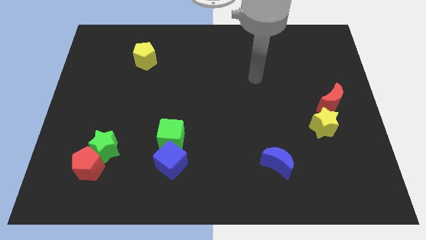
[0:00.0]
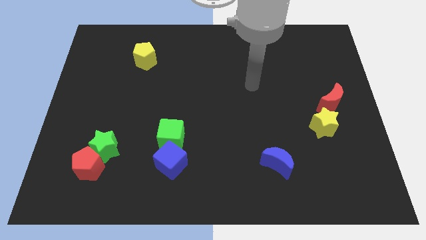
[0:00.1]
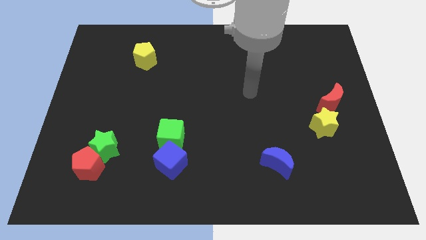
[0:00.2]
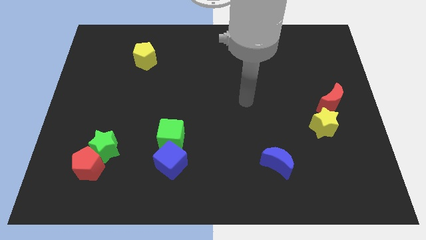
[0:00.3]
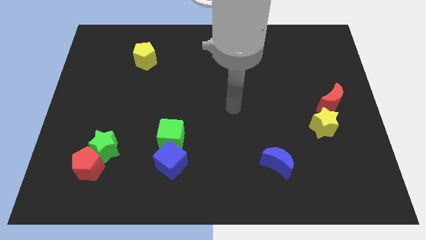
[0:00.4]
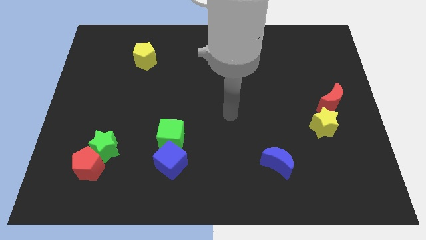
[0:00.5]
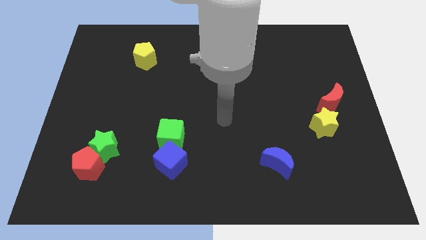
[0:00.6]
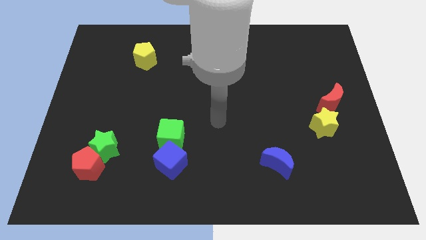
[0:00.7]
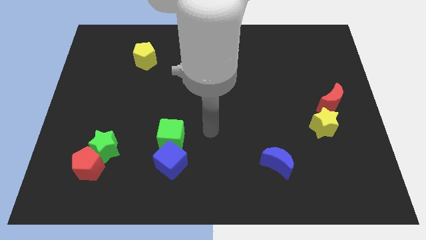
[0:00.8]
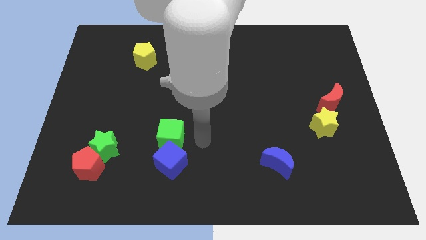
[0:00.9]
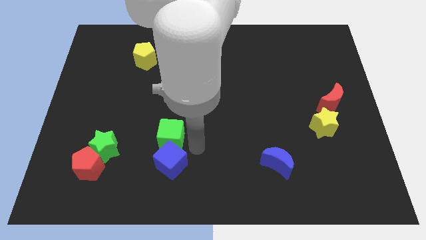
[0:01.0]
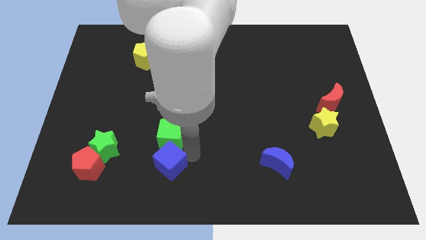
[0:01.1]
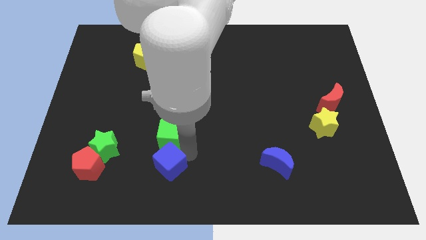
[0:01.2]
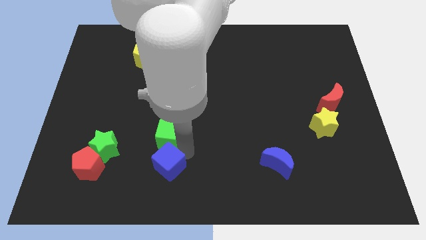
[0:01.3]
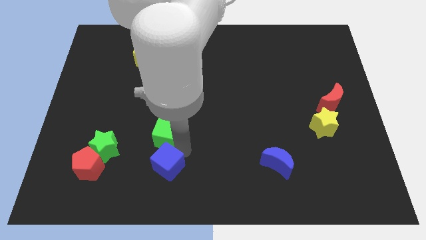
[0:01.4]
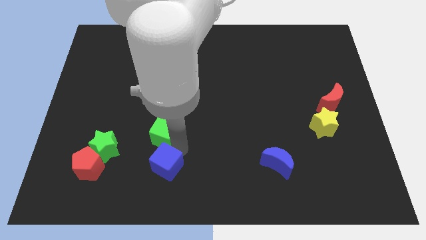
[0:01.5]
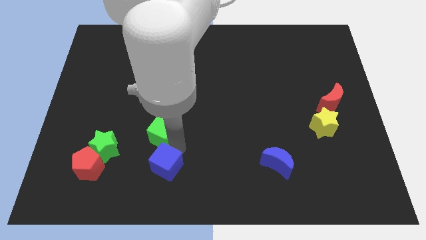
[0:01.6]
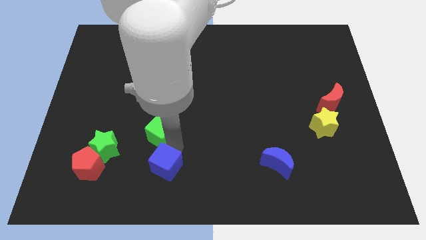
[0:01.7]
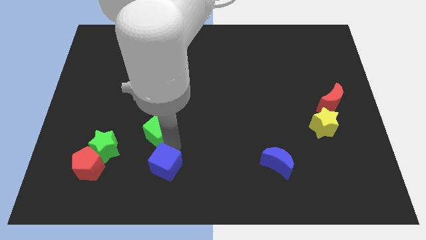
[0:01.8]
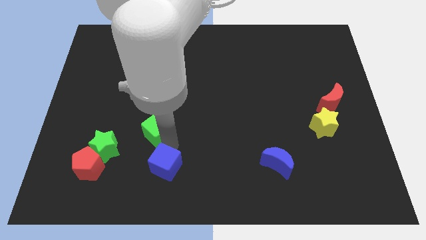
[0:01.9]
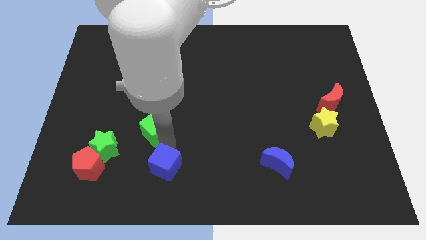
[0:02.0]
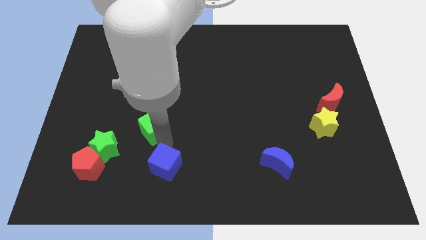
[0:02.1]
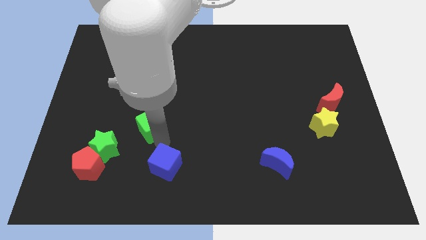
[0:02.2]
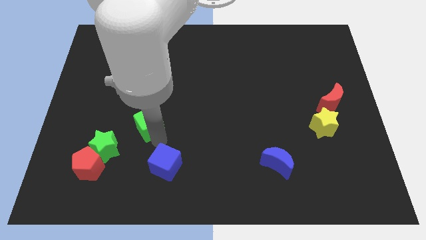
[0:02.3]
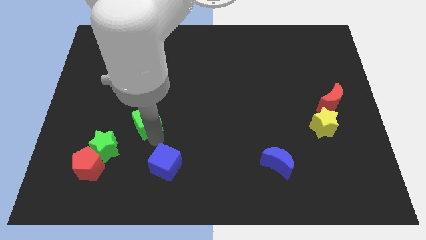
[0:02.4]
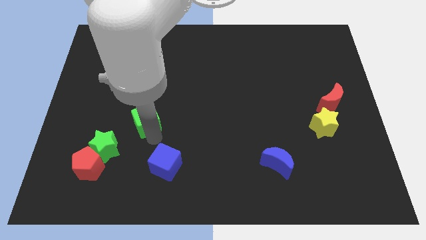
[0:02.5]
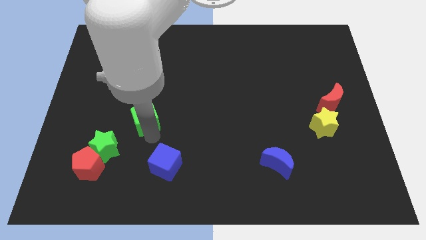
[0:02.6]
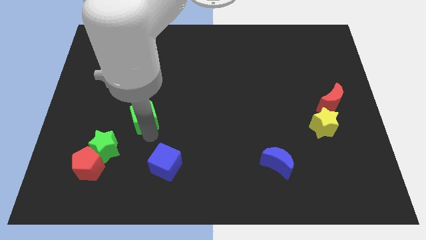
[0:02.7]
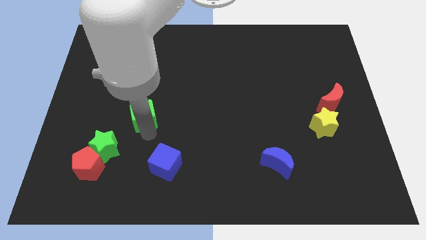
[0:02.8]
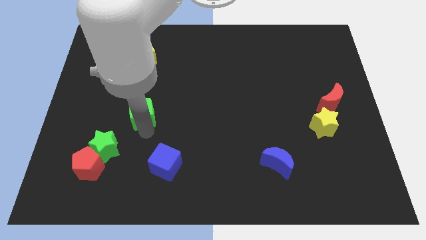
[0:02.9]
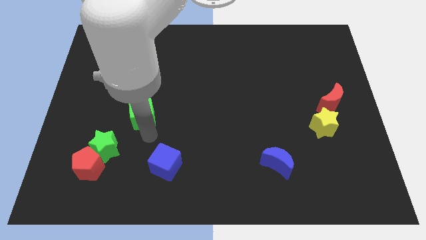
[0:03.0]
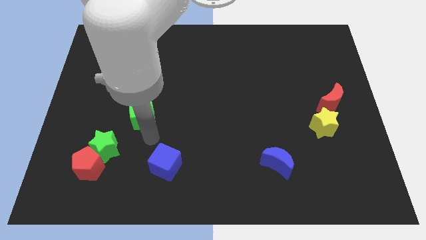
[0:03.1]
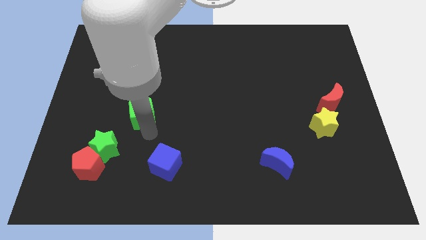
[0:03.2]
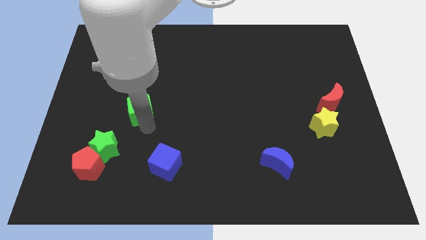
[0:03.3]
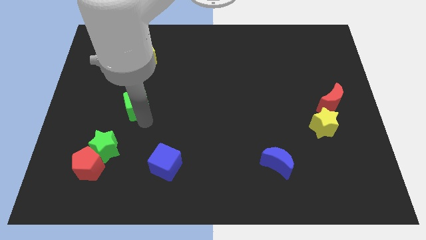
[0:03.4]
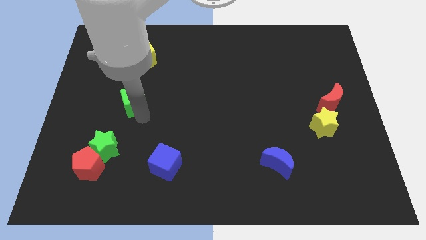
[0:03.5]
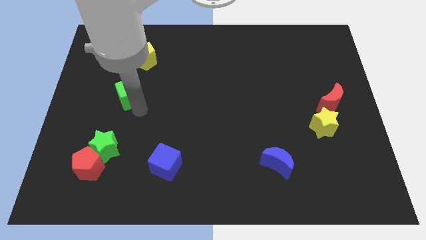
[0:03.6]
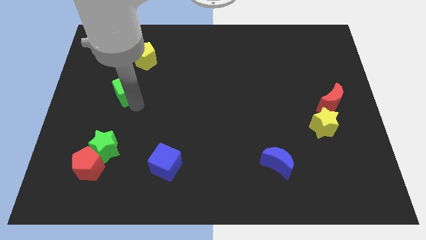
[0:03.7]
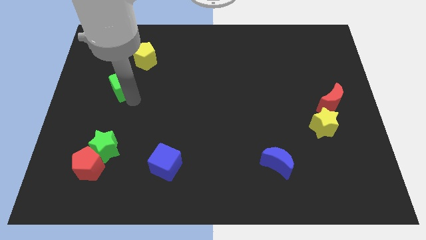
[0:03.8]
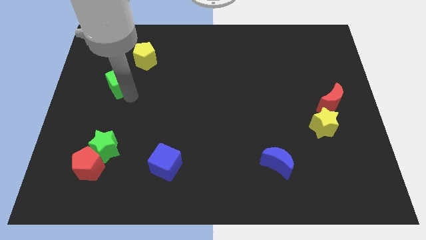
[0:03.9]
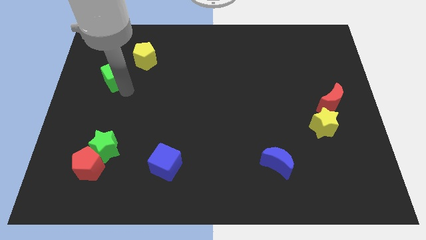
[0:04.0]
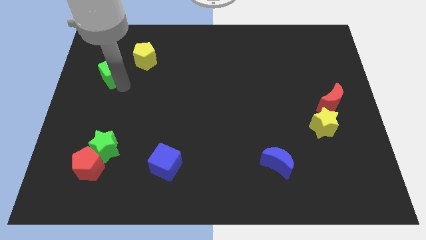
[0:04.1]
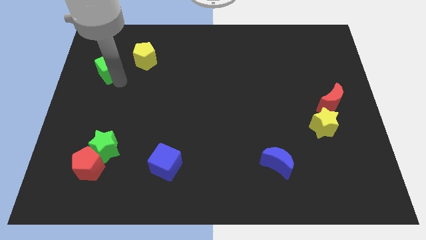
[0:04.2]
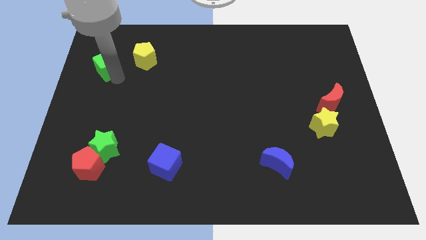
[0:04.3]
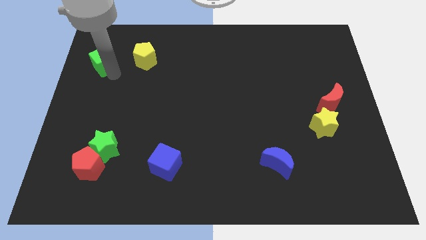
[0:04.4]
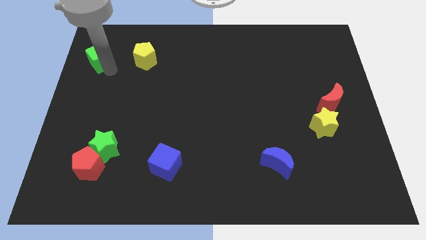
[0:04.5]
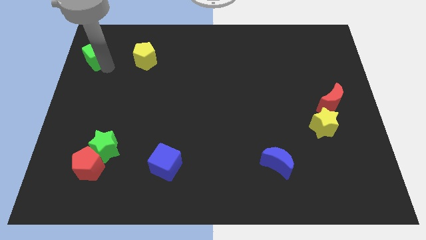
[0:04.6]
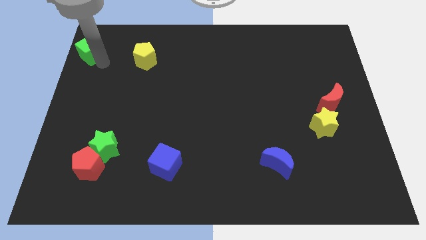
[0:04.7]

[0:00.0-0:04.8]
move the green cube to the top left of the board

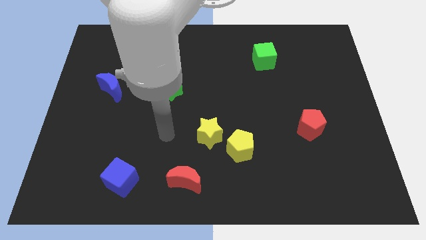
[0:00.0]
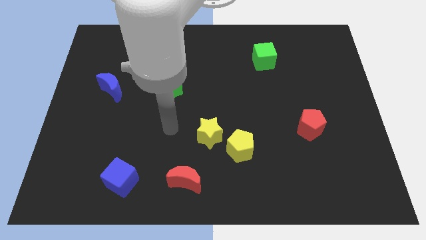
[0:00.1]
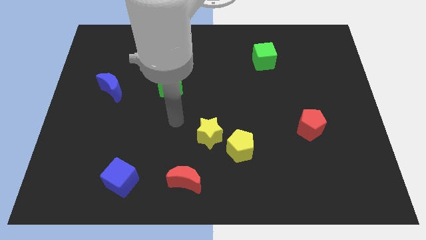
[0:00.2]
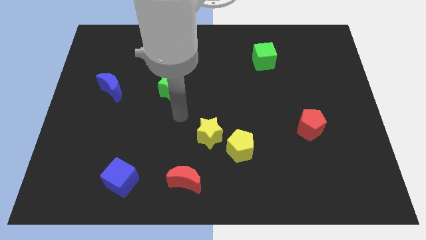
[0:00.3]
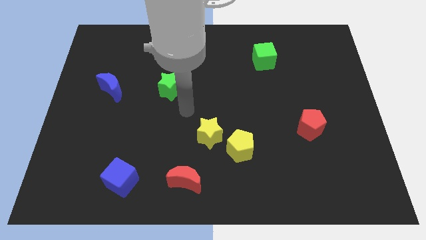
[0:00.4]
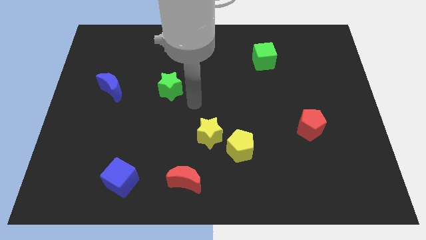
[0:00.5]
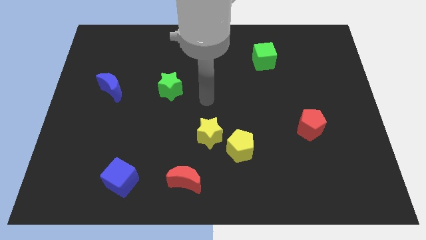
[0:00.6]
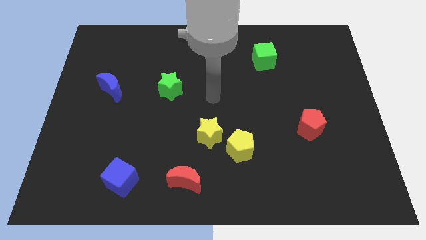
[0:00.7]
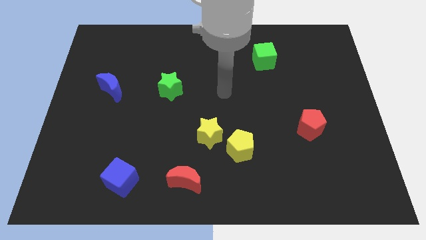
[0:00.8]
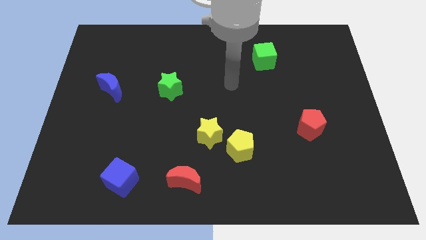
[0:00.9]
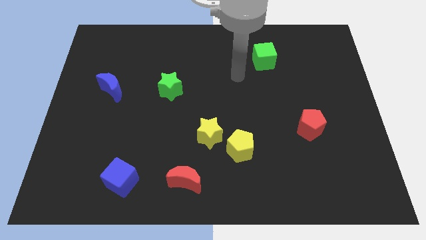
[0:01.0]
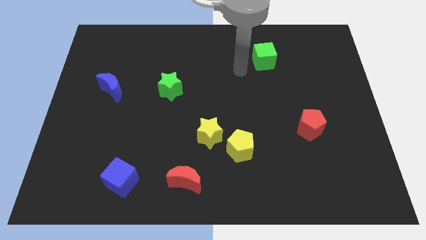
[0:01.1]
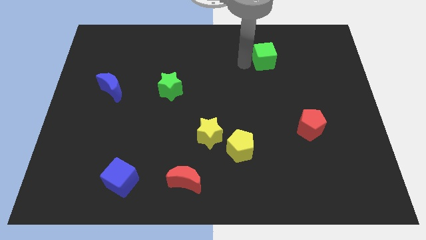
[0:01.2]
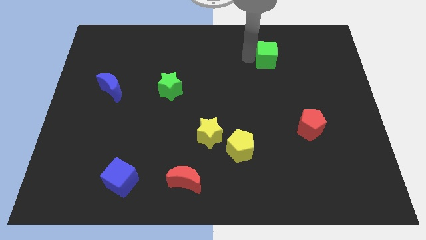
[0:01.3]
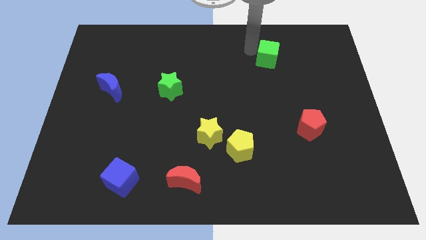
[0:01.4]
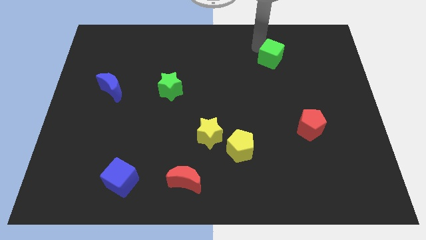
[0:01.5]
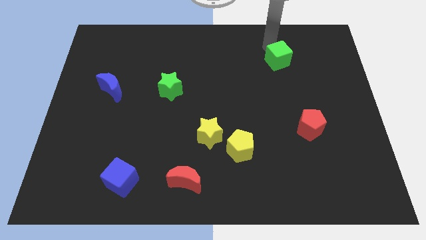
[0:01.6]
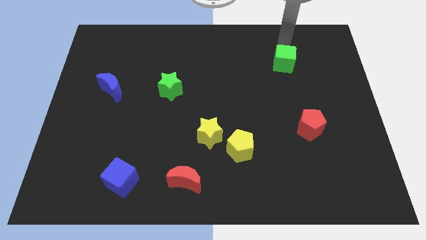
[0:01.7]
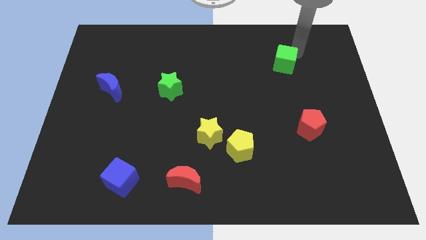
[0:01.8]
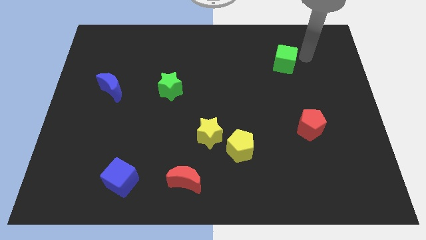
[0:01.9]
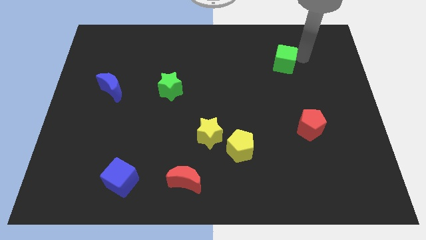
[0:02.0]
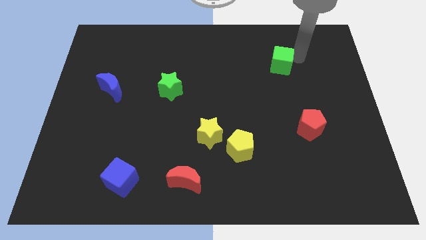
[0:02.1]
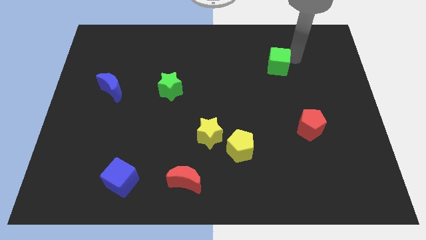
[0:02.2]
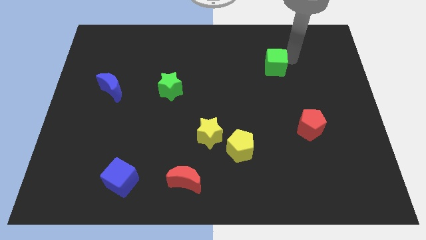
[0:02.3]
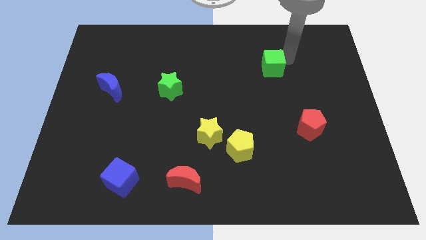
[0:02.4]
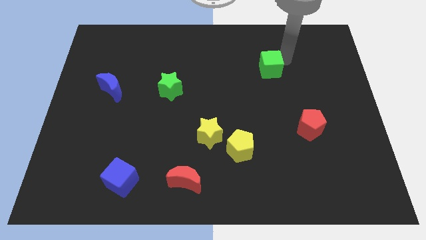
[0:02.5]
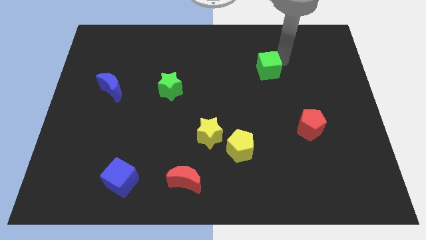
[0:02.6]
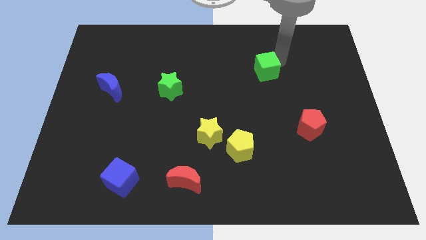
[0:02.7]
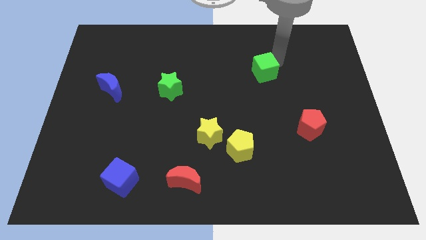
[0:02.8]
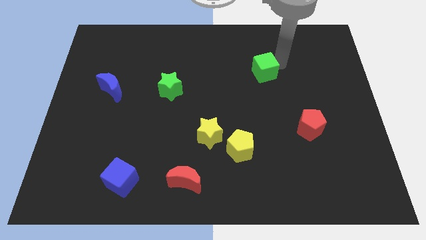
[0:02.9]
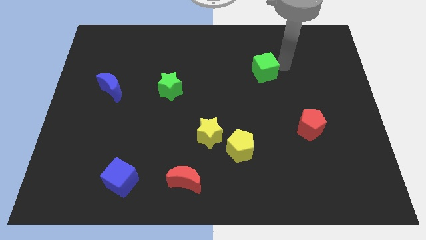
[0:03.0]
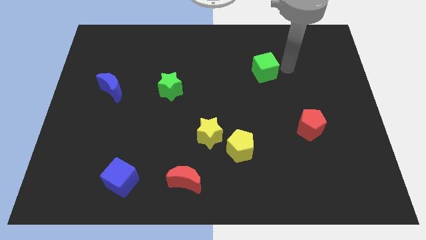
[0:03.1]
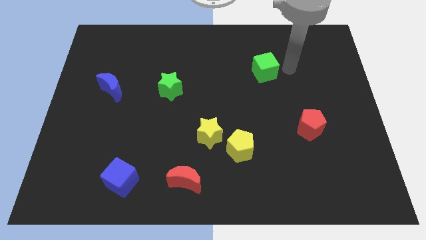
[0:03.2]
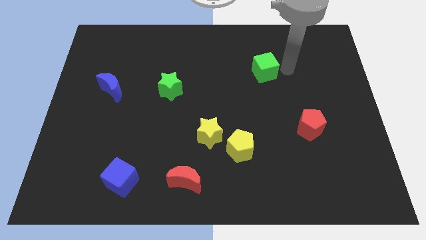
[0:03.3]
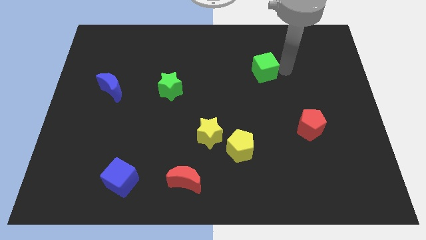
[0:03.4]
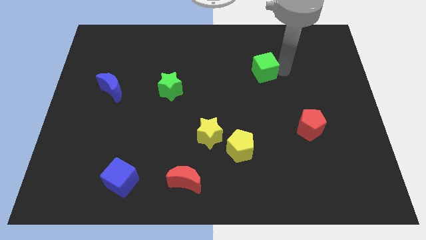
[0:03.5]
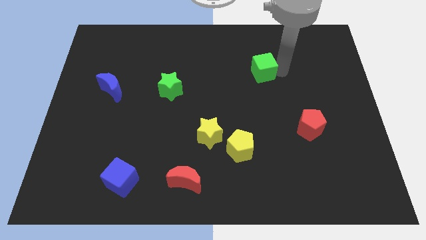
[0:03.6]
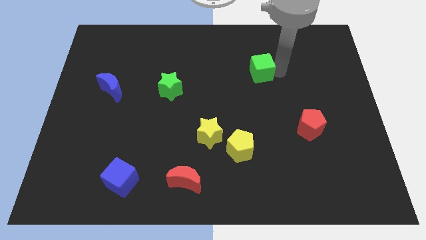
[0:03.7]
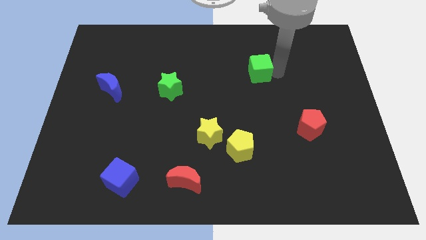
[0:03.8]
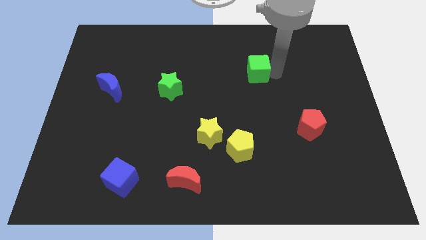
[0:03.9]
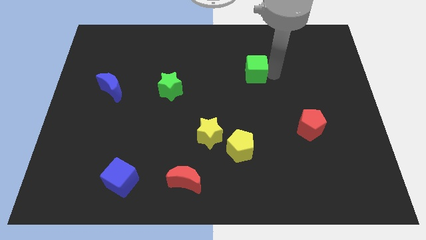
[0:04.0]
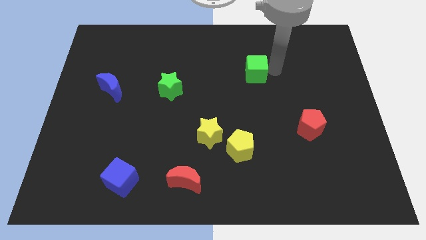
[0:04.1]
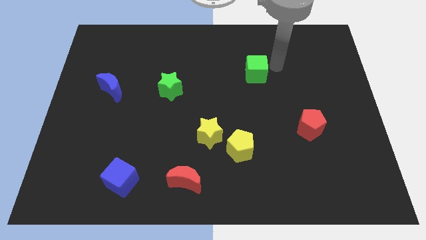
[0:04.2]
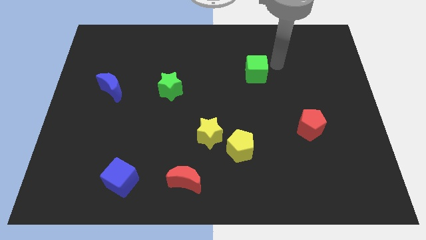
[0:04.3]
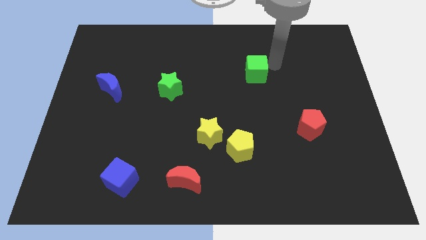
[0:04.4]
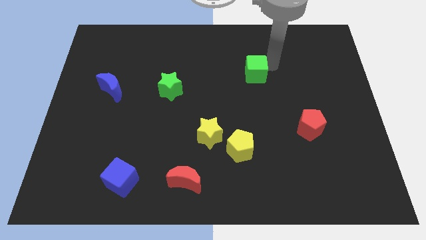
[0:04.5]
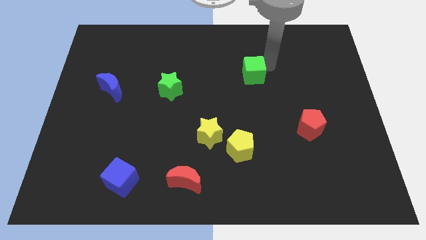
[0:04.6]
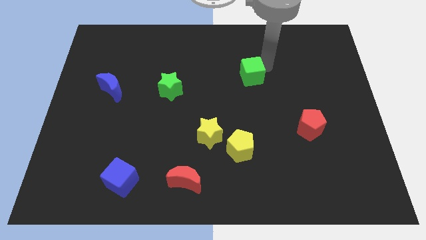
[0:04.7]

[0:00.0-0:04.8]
push the green cube to the center of the board
